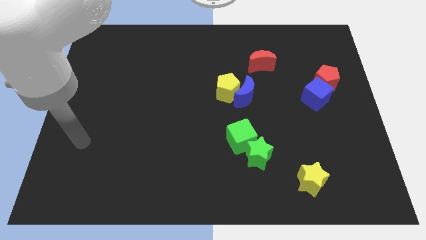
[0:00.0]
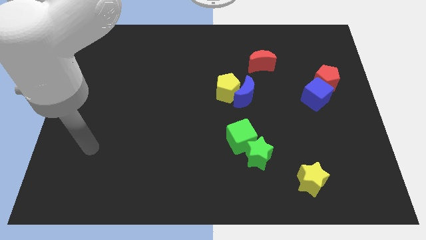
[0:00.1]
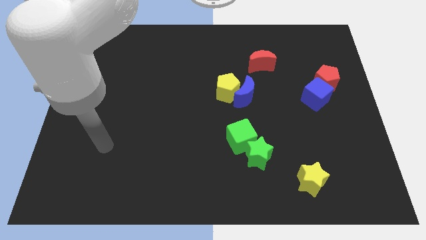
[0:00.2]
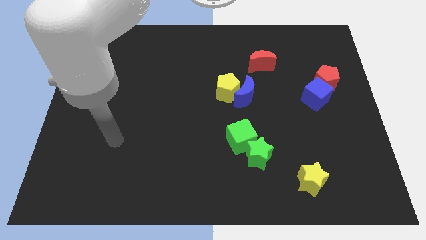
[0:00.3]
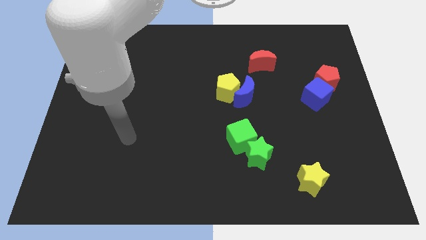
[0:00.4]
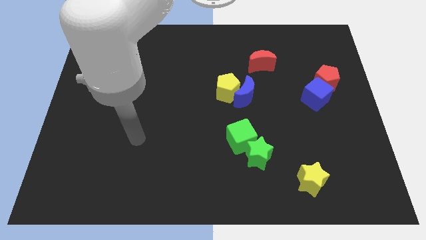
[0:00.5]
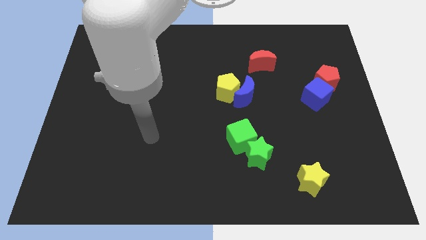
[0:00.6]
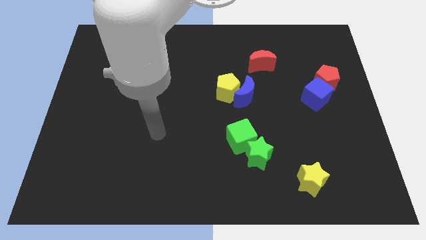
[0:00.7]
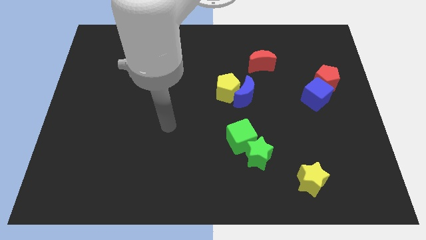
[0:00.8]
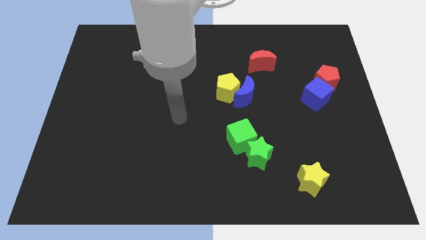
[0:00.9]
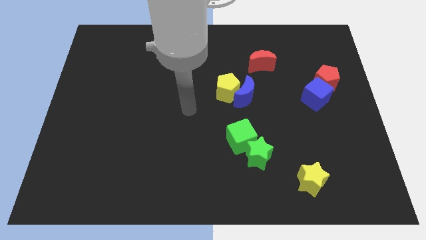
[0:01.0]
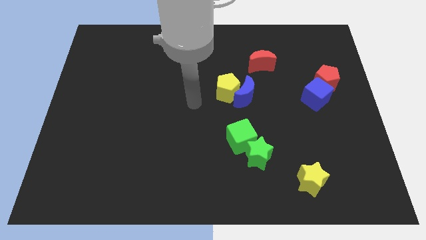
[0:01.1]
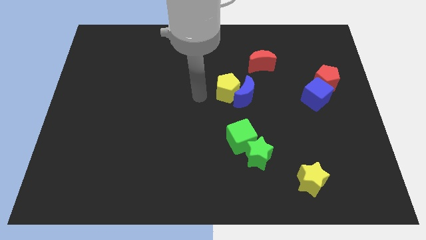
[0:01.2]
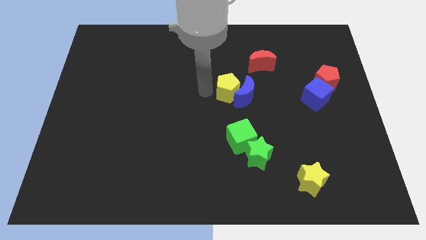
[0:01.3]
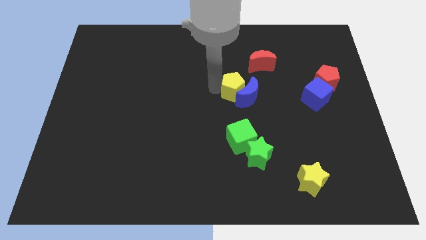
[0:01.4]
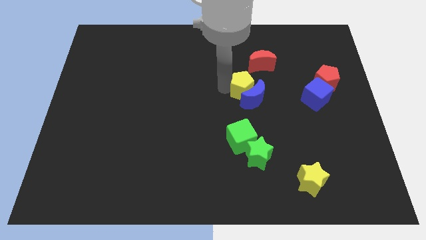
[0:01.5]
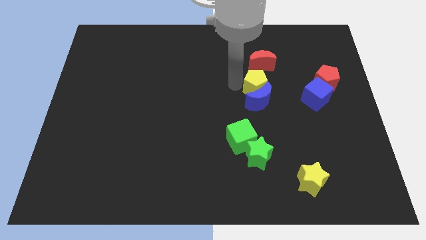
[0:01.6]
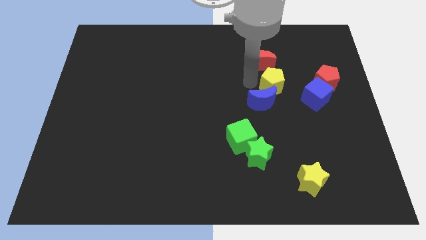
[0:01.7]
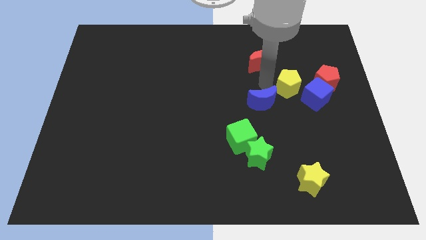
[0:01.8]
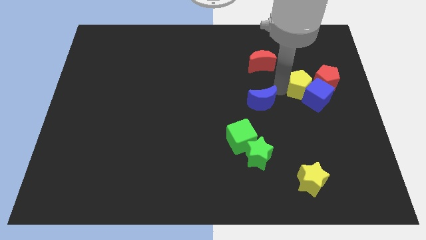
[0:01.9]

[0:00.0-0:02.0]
move the blue moon away from the yellow pentagon

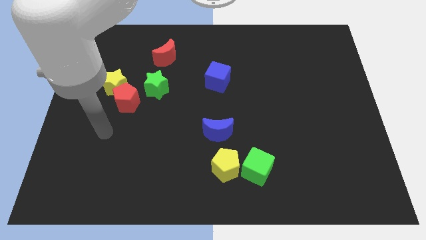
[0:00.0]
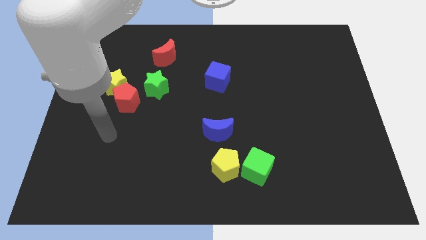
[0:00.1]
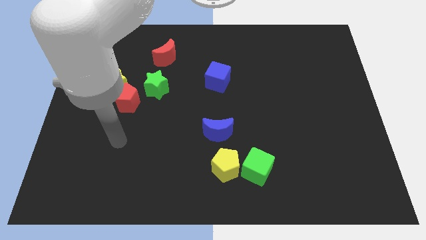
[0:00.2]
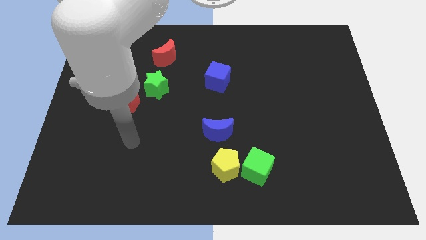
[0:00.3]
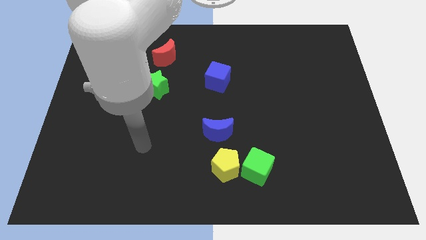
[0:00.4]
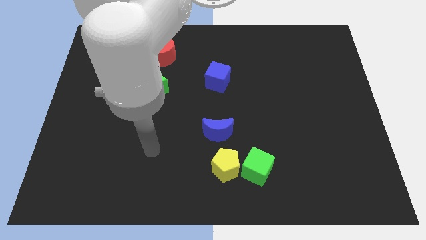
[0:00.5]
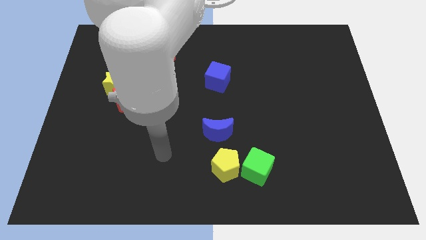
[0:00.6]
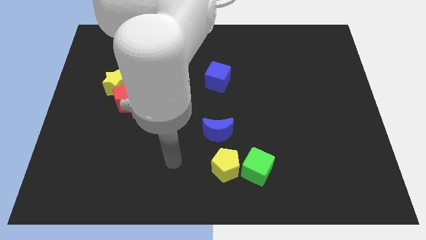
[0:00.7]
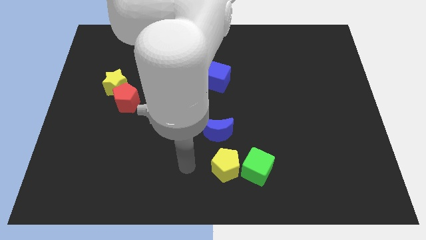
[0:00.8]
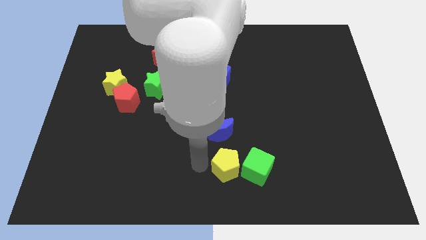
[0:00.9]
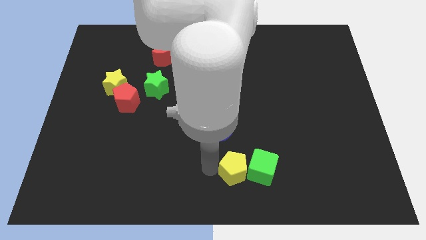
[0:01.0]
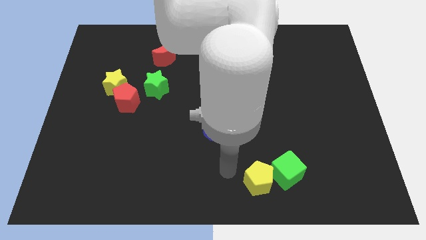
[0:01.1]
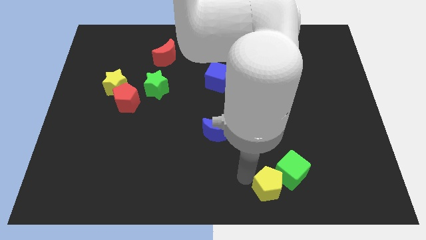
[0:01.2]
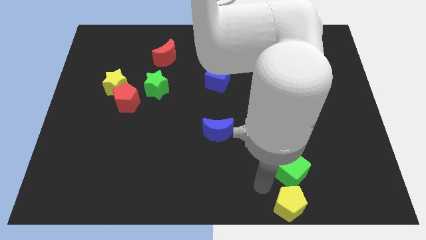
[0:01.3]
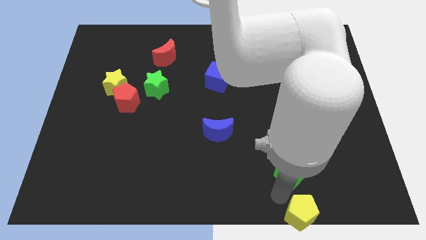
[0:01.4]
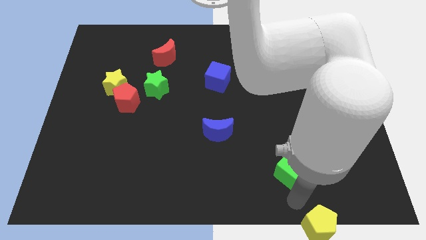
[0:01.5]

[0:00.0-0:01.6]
move the green cube away from the yellow pentagon

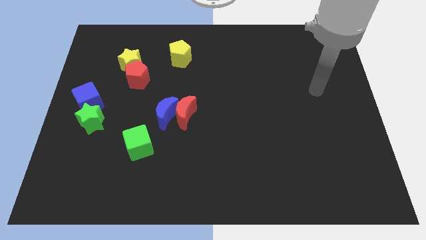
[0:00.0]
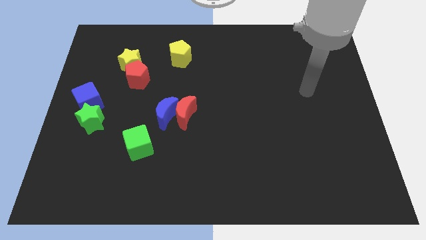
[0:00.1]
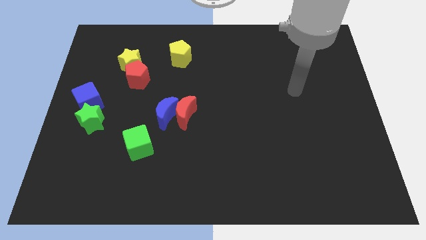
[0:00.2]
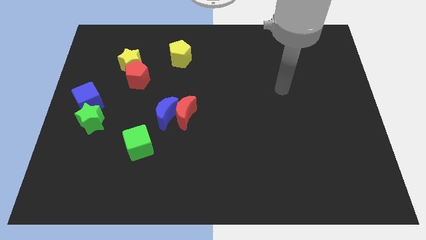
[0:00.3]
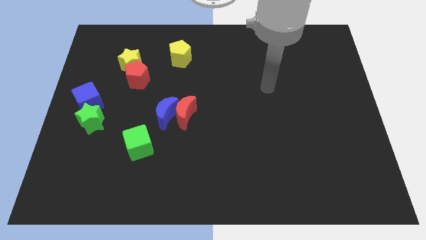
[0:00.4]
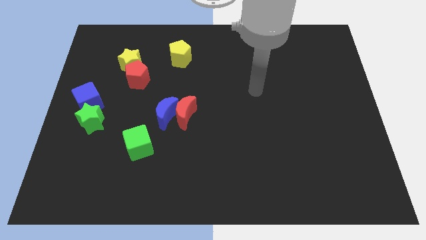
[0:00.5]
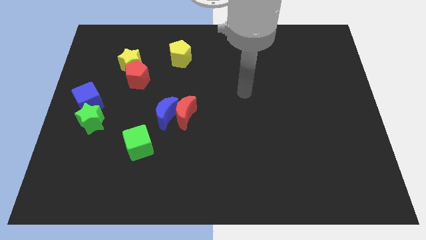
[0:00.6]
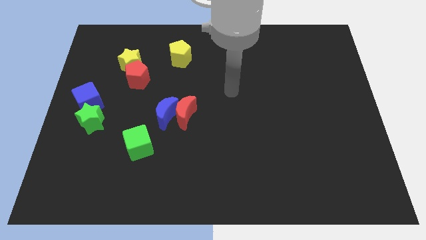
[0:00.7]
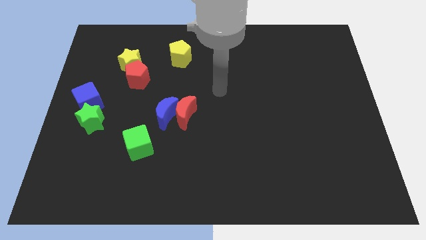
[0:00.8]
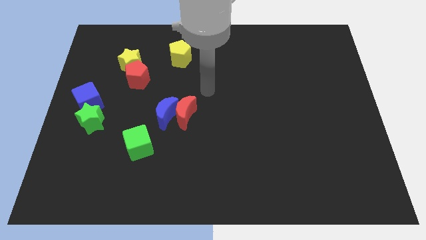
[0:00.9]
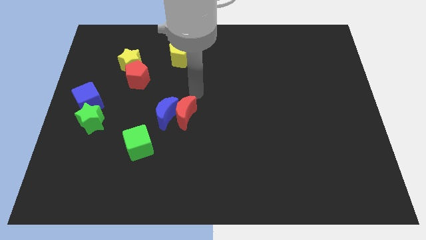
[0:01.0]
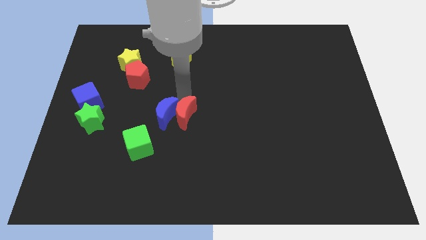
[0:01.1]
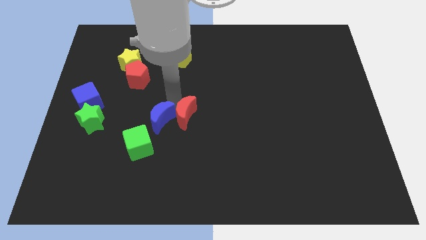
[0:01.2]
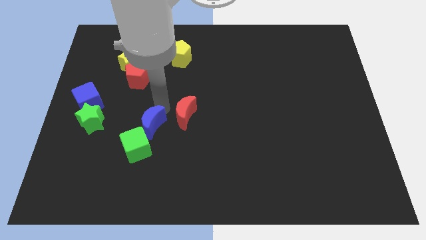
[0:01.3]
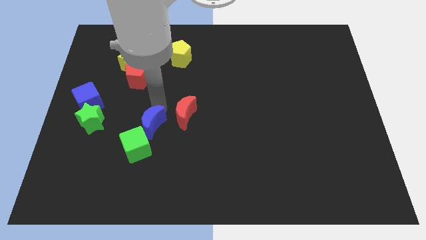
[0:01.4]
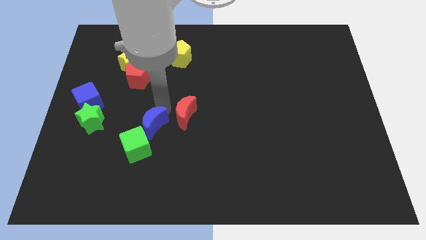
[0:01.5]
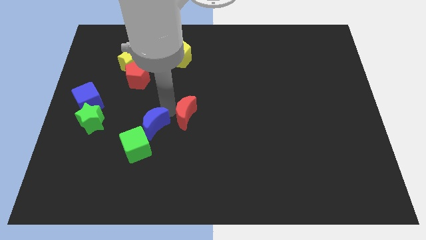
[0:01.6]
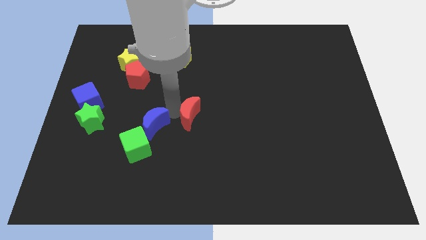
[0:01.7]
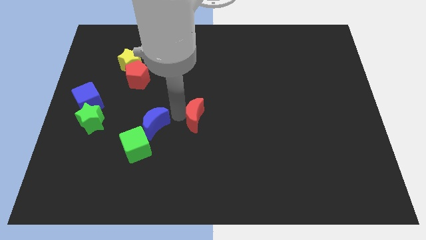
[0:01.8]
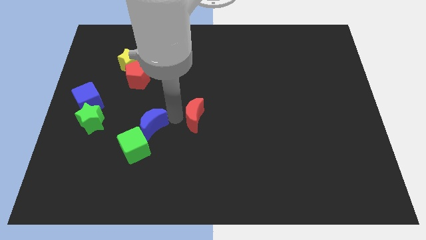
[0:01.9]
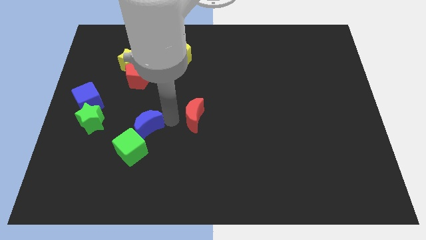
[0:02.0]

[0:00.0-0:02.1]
separate the red moon from the blue moon

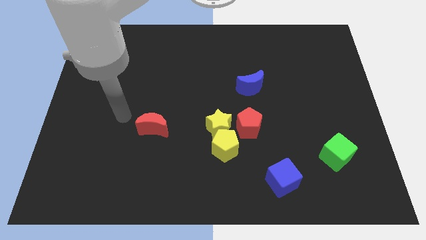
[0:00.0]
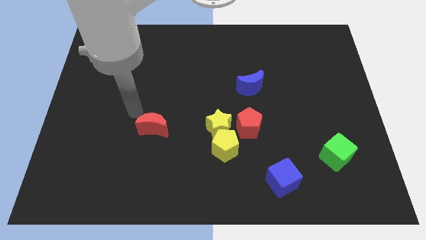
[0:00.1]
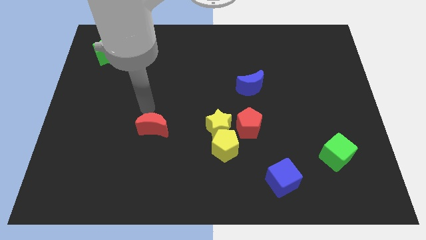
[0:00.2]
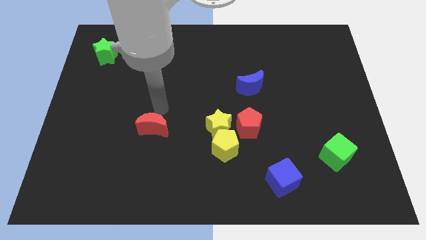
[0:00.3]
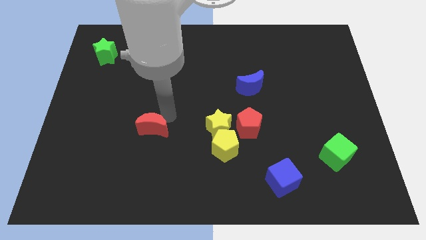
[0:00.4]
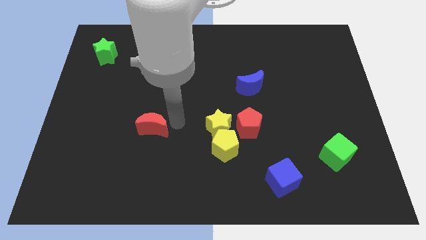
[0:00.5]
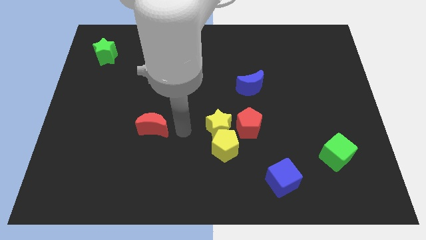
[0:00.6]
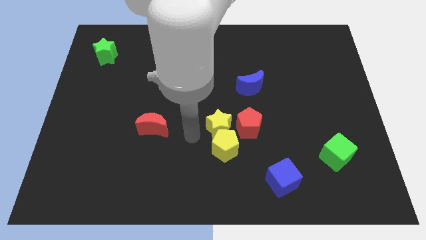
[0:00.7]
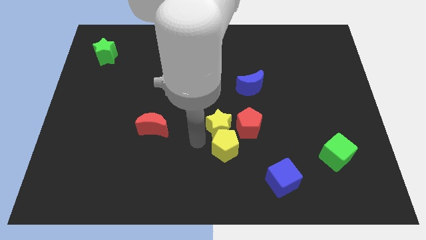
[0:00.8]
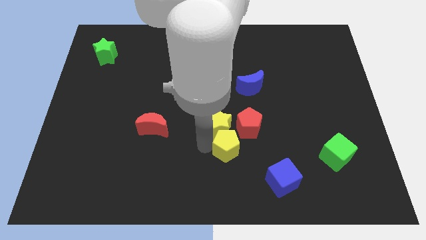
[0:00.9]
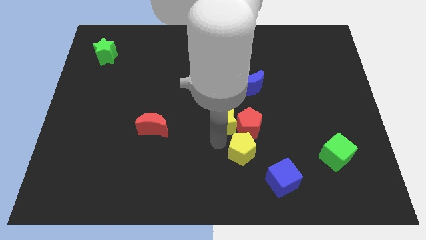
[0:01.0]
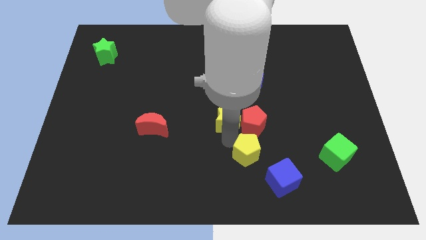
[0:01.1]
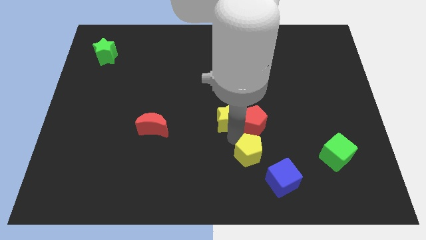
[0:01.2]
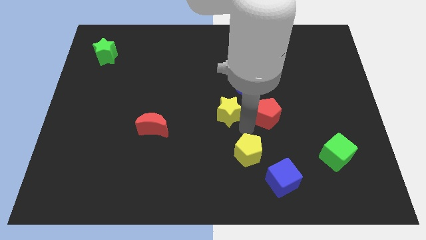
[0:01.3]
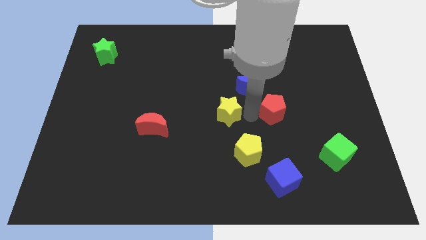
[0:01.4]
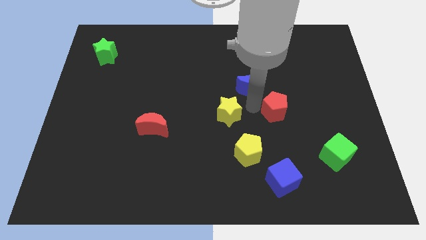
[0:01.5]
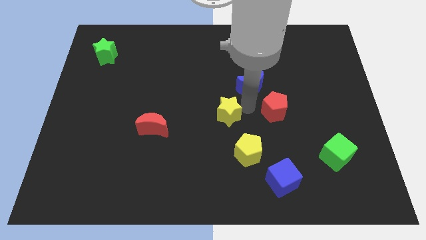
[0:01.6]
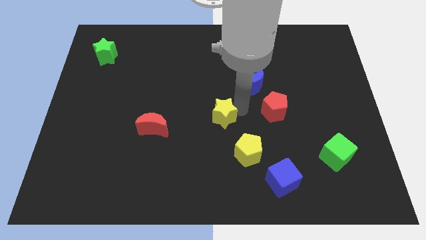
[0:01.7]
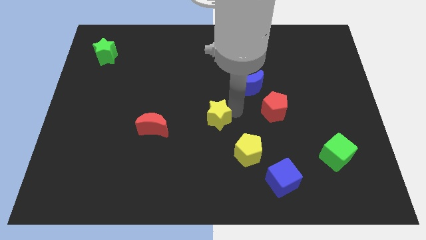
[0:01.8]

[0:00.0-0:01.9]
move the yellow star away from the yellow pentagon and red pentagon

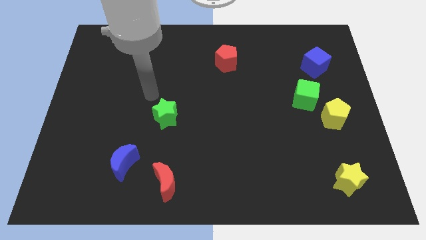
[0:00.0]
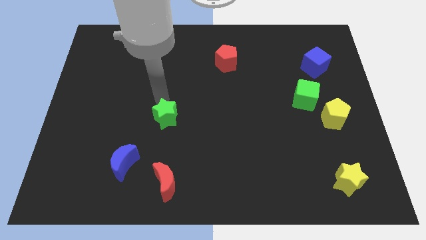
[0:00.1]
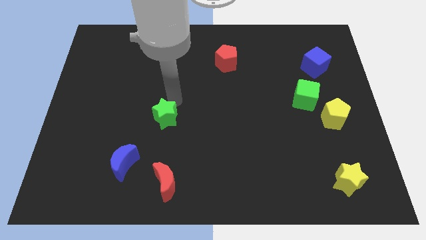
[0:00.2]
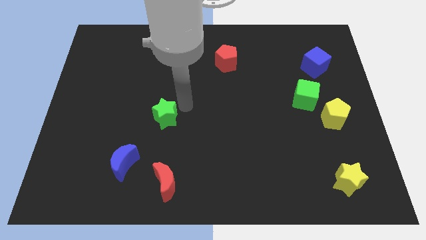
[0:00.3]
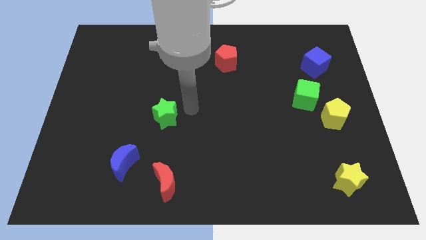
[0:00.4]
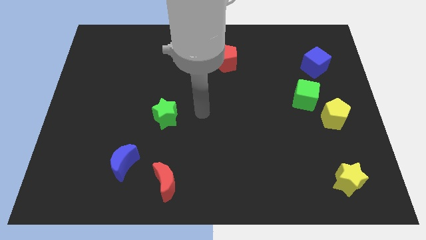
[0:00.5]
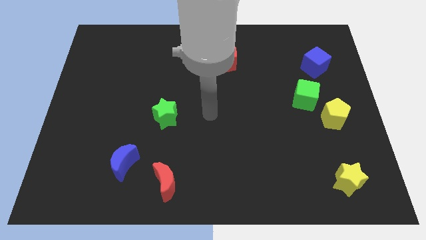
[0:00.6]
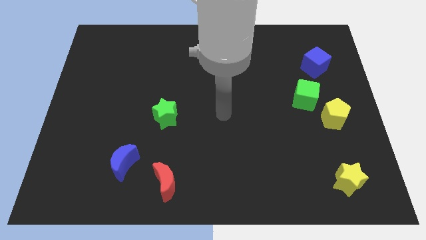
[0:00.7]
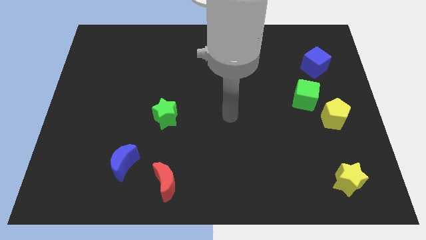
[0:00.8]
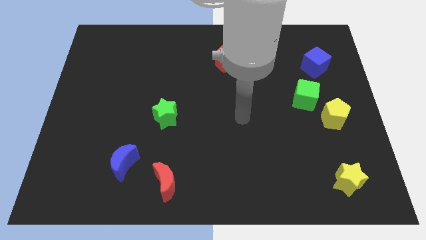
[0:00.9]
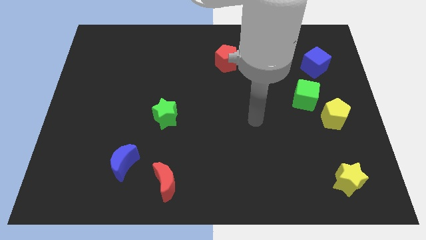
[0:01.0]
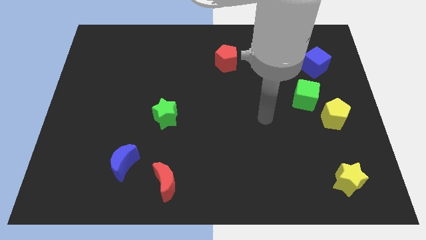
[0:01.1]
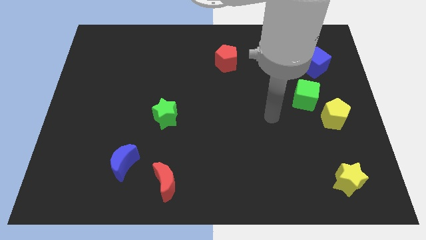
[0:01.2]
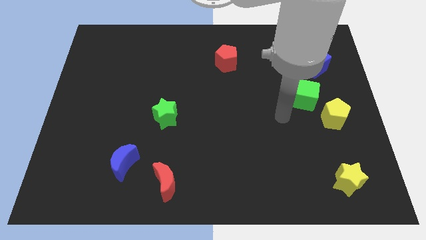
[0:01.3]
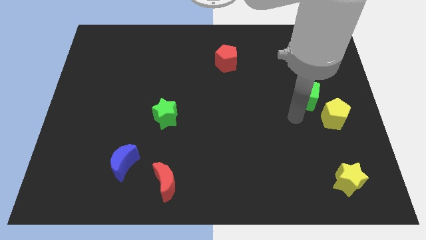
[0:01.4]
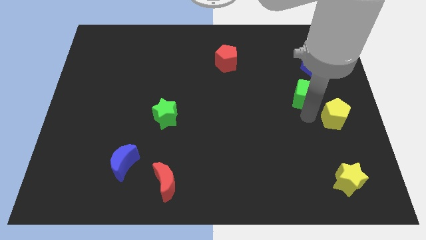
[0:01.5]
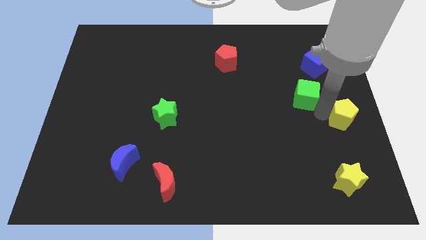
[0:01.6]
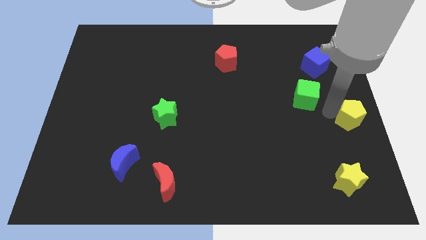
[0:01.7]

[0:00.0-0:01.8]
separate the green cube from the yellow pentagon
